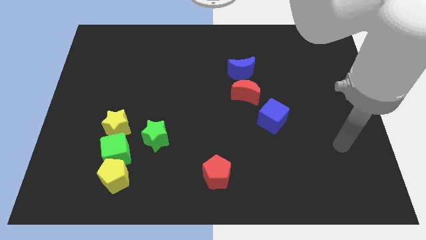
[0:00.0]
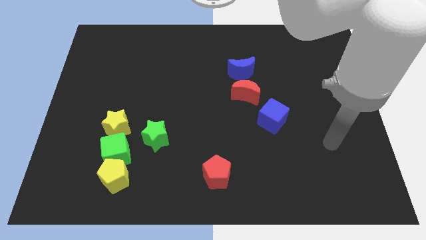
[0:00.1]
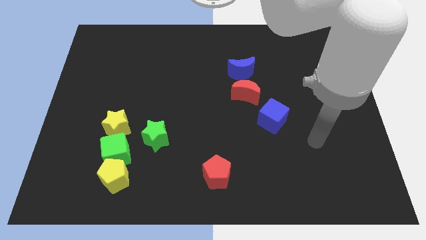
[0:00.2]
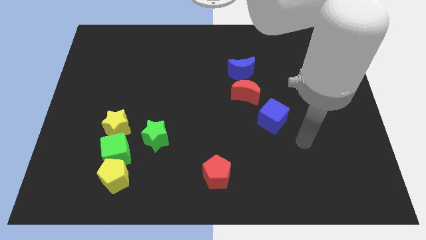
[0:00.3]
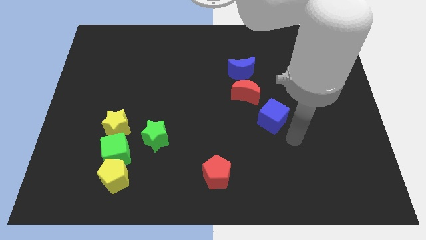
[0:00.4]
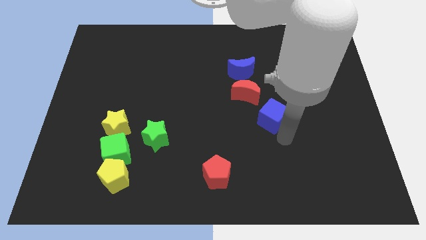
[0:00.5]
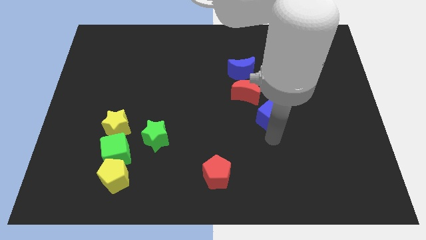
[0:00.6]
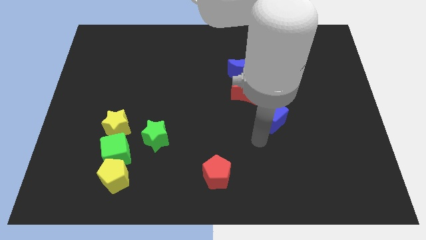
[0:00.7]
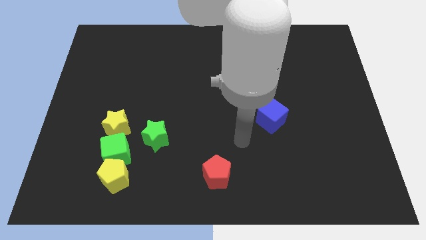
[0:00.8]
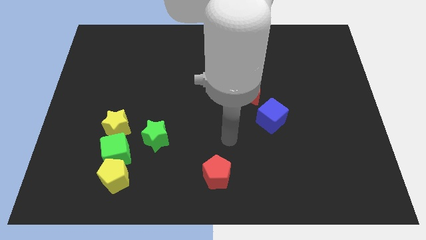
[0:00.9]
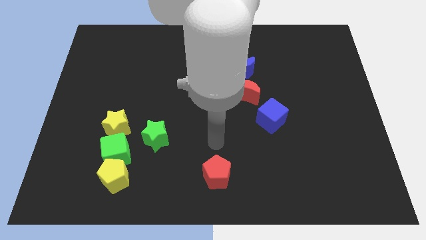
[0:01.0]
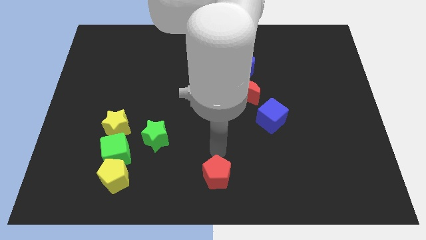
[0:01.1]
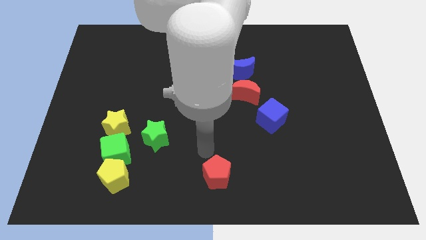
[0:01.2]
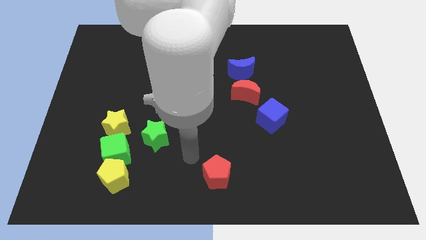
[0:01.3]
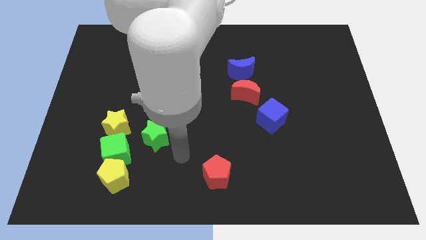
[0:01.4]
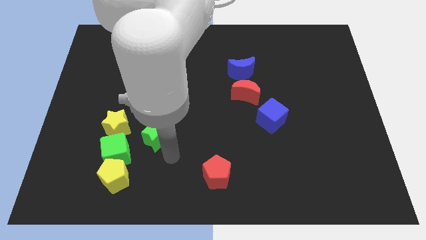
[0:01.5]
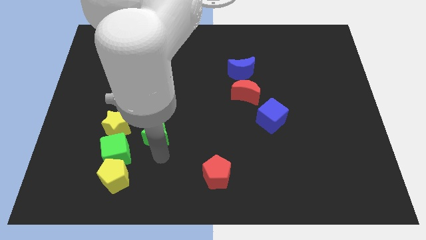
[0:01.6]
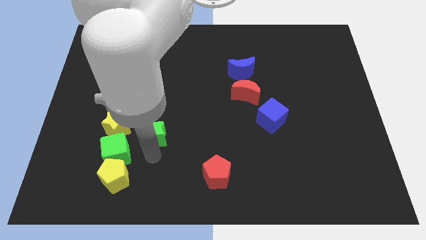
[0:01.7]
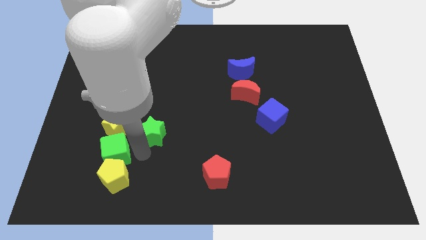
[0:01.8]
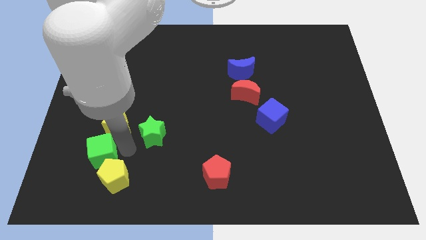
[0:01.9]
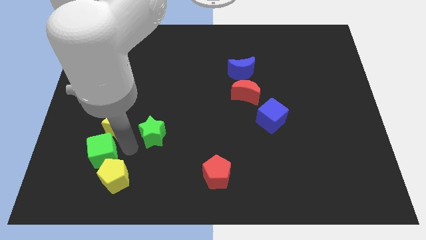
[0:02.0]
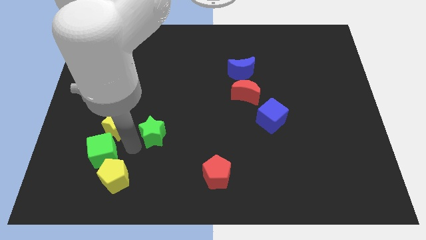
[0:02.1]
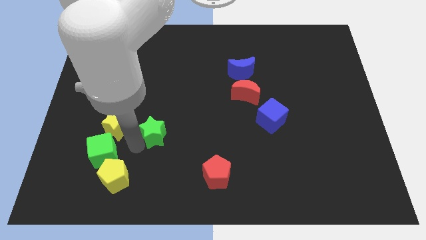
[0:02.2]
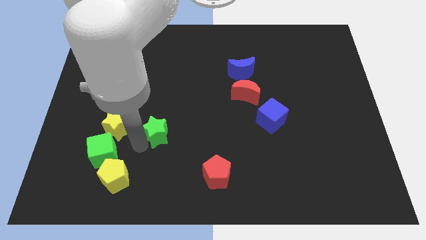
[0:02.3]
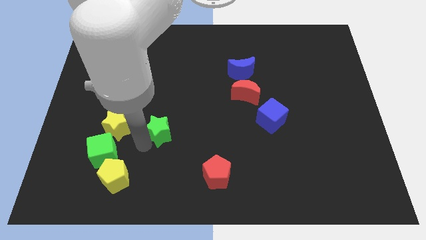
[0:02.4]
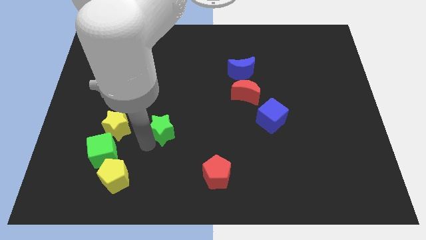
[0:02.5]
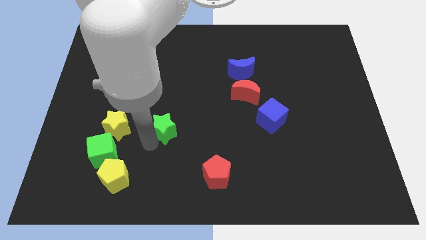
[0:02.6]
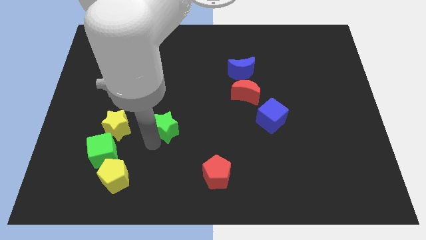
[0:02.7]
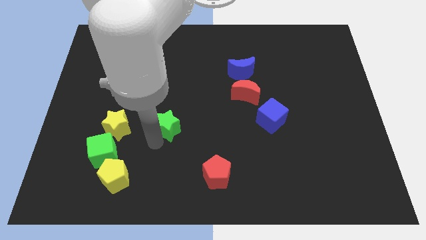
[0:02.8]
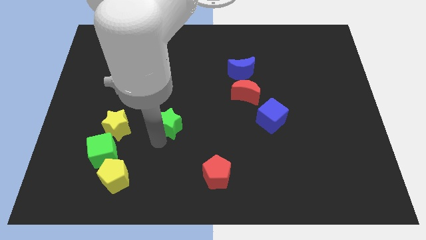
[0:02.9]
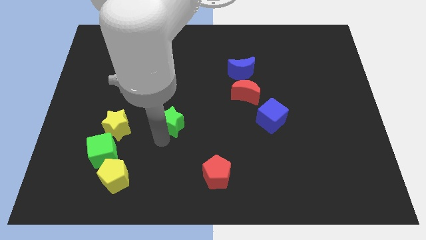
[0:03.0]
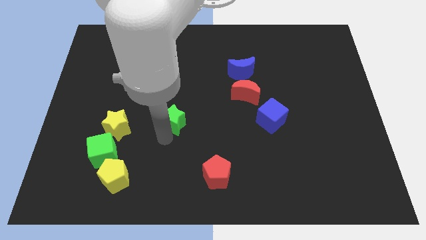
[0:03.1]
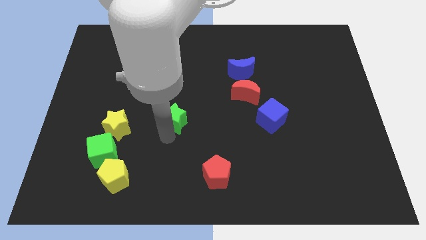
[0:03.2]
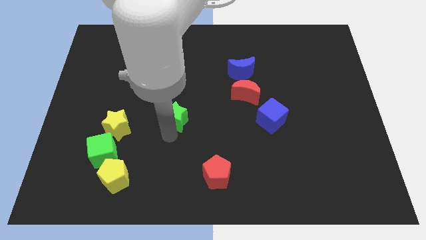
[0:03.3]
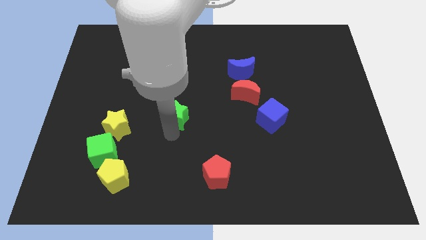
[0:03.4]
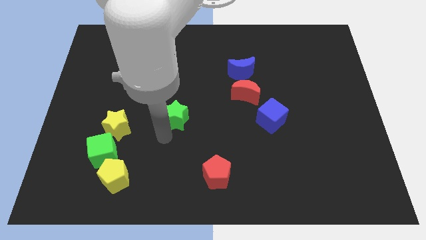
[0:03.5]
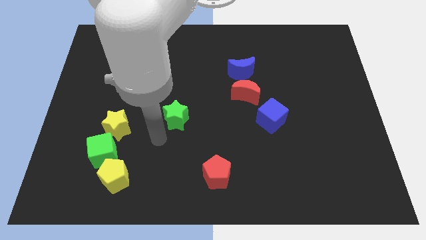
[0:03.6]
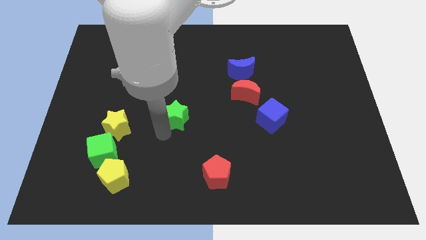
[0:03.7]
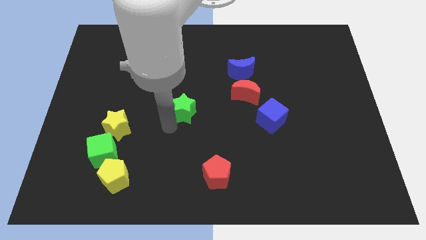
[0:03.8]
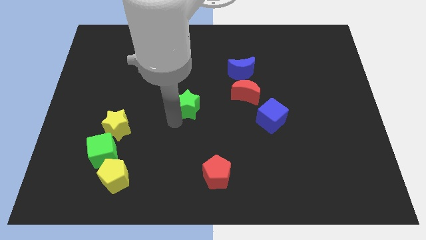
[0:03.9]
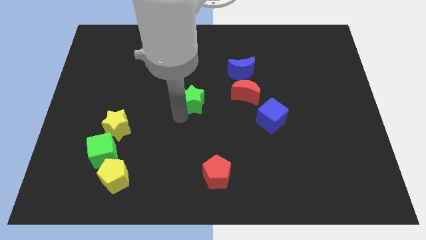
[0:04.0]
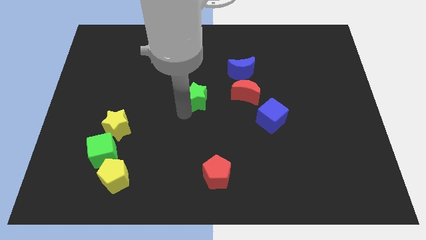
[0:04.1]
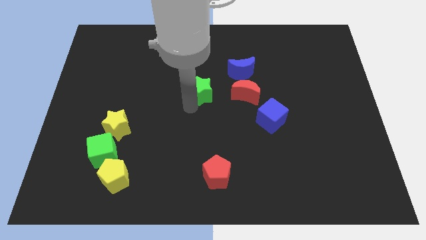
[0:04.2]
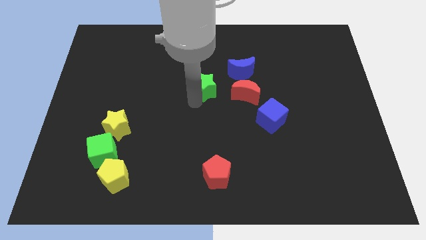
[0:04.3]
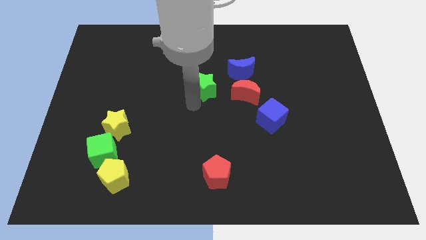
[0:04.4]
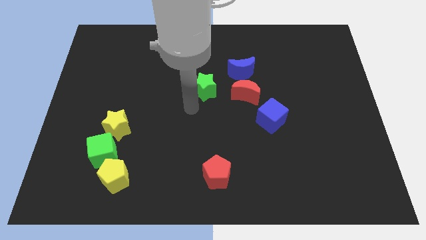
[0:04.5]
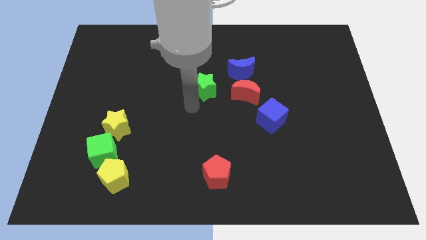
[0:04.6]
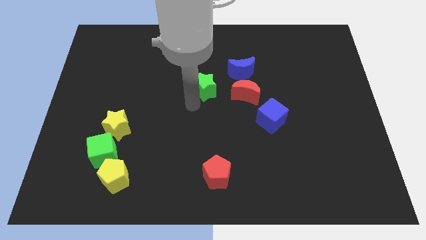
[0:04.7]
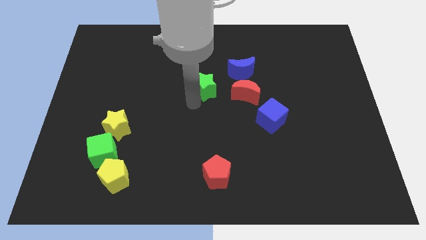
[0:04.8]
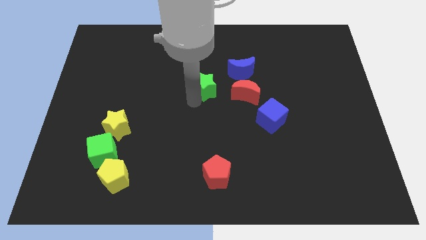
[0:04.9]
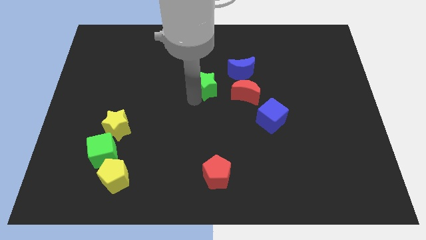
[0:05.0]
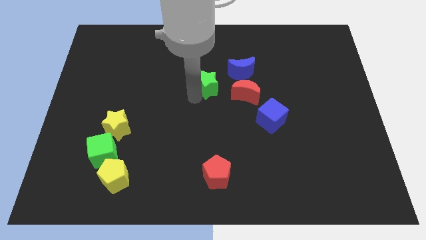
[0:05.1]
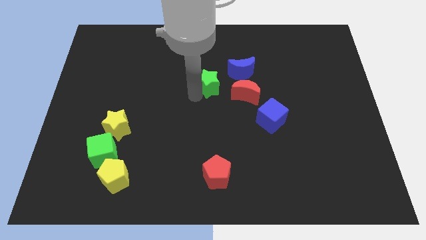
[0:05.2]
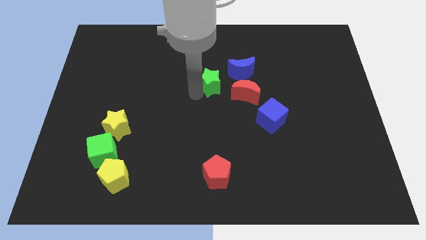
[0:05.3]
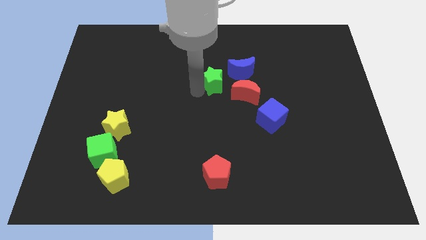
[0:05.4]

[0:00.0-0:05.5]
move the green star upwards and to the right

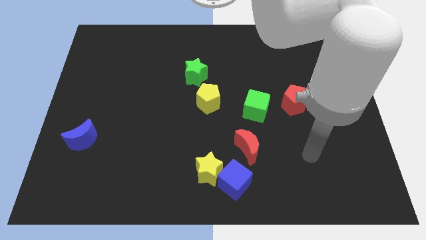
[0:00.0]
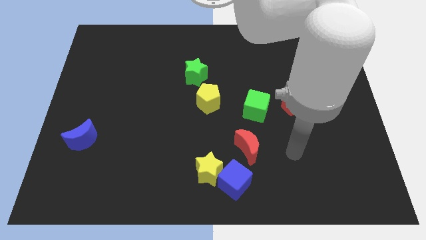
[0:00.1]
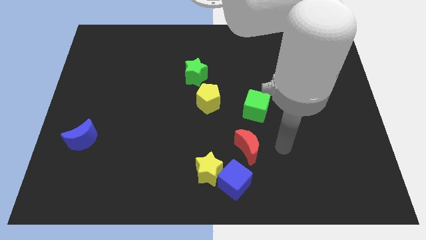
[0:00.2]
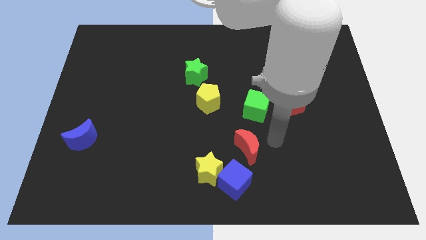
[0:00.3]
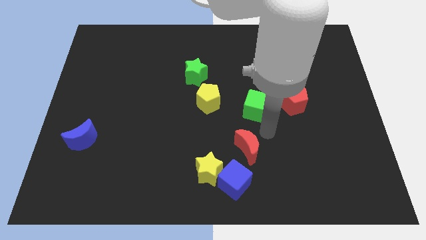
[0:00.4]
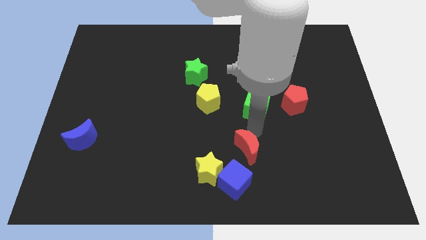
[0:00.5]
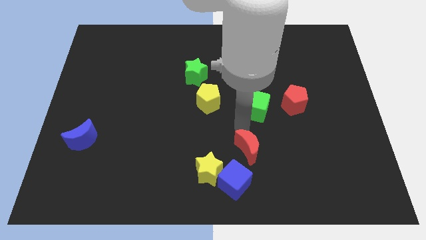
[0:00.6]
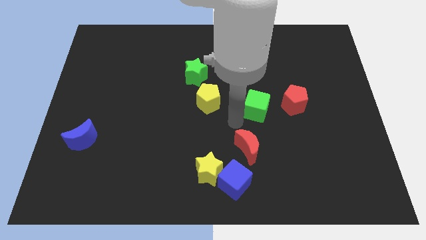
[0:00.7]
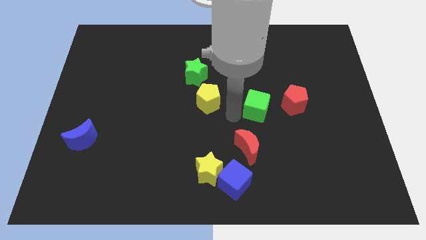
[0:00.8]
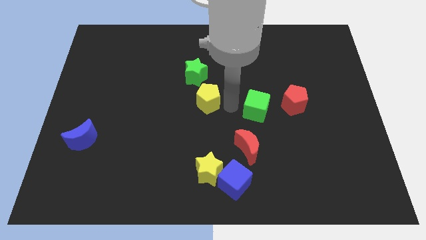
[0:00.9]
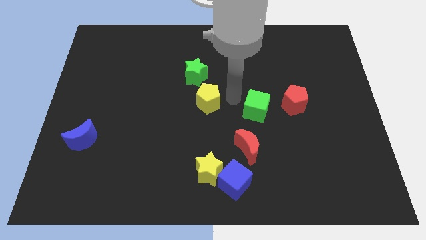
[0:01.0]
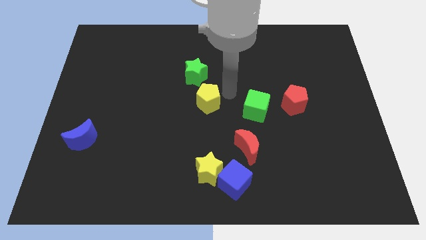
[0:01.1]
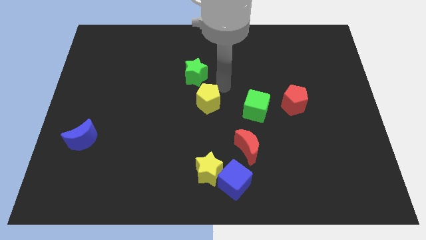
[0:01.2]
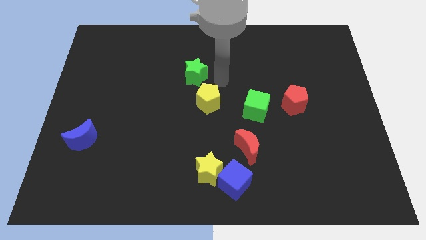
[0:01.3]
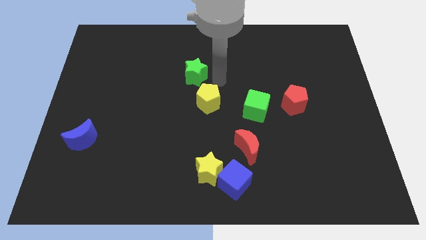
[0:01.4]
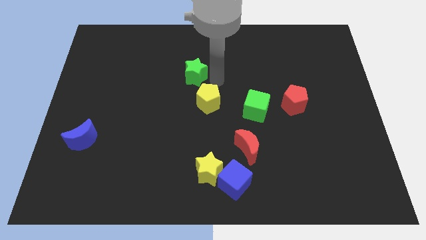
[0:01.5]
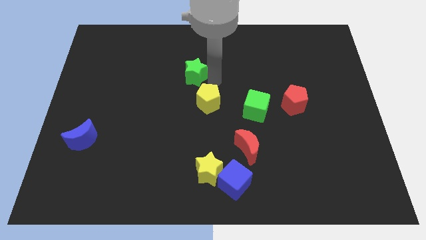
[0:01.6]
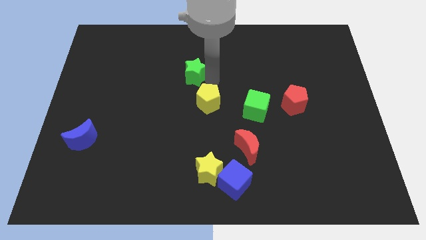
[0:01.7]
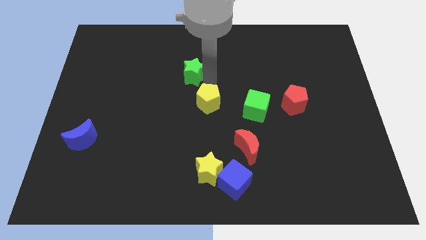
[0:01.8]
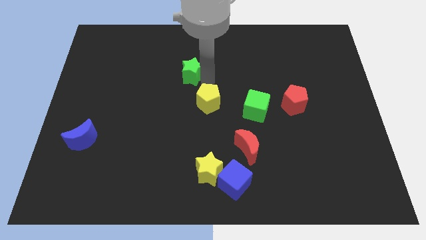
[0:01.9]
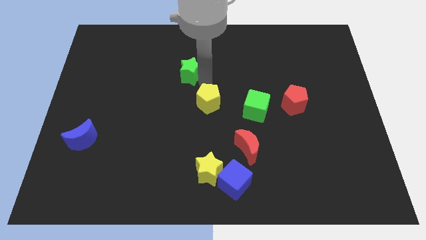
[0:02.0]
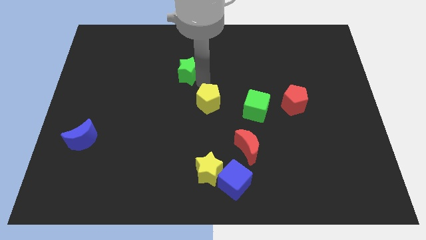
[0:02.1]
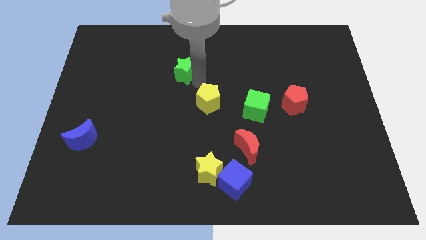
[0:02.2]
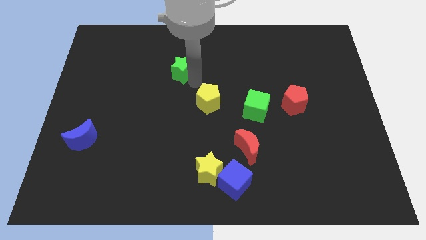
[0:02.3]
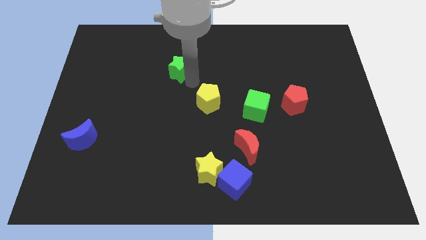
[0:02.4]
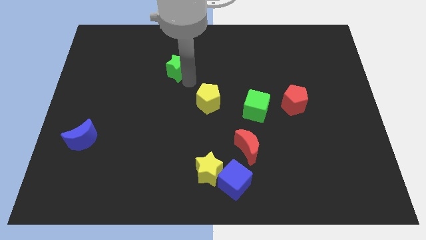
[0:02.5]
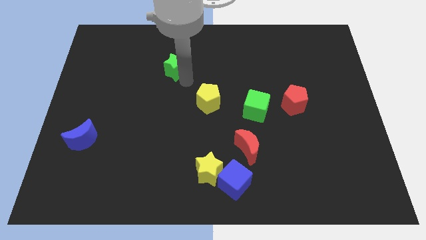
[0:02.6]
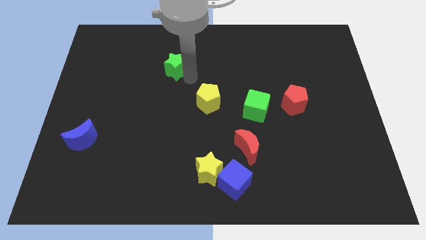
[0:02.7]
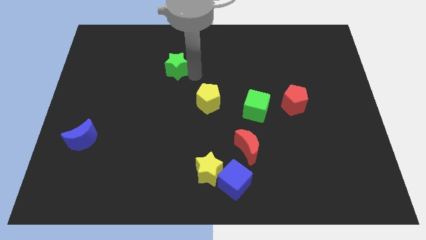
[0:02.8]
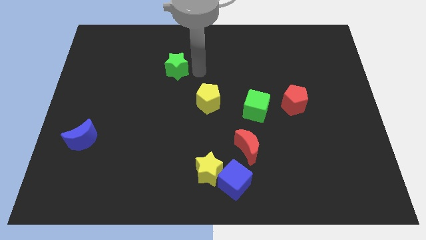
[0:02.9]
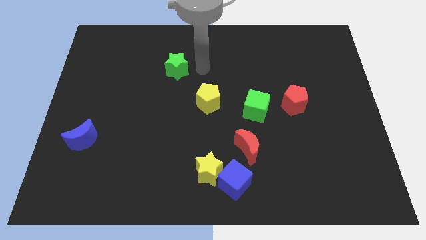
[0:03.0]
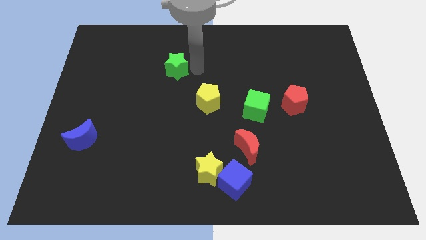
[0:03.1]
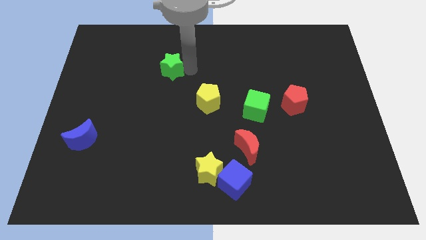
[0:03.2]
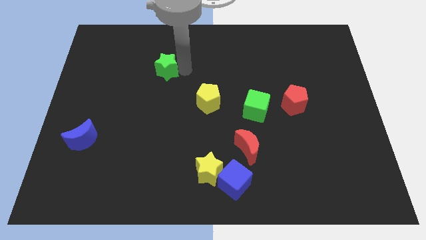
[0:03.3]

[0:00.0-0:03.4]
slide the green star a little bit left
